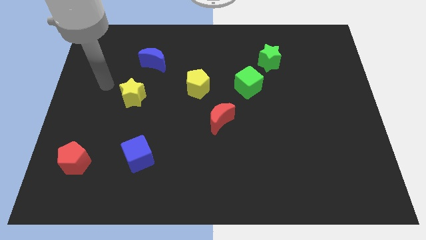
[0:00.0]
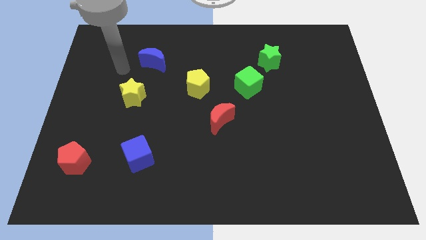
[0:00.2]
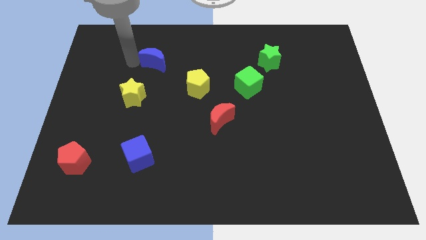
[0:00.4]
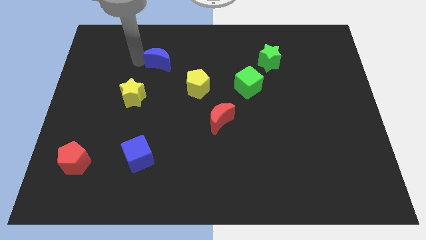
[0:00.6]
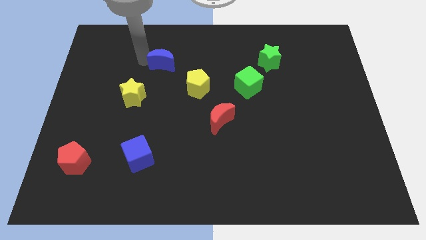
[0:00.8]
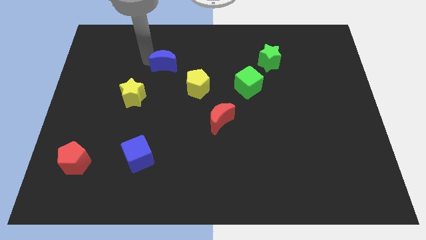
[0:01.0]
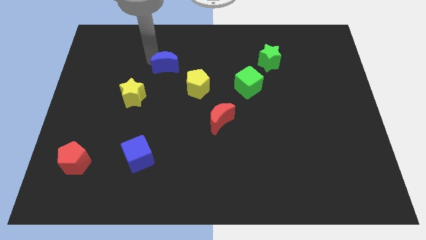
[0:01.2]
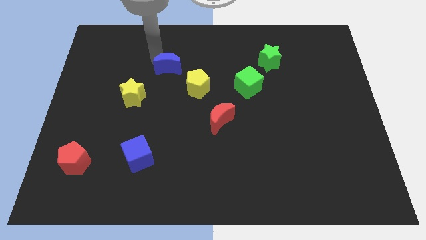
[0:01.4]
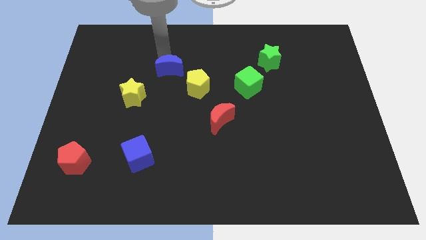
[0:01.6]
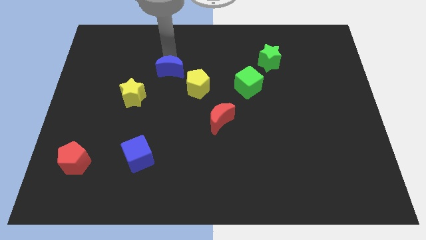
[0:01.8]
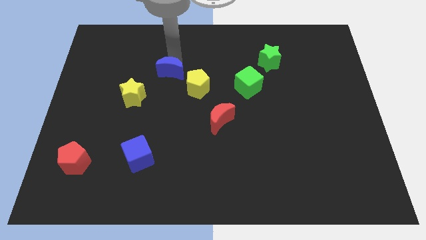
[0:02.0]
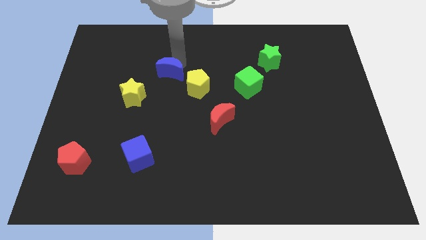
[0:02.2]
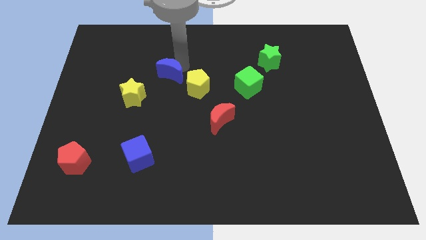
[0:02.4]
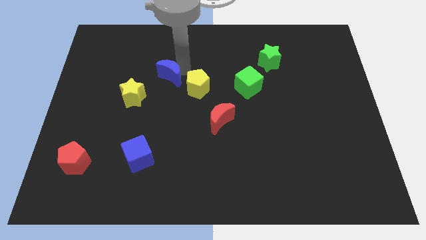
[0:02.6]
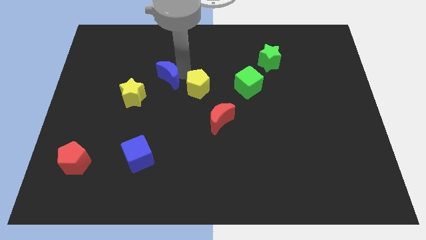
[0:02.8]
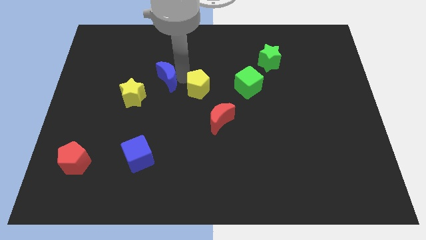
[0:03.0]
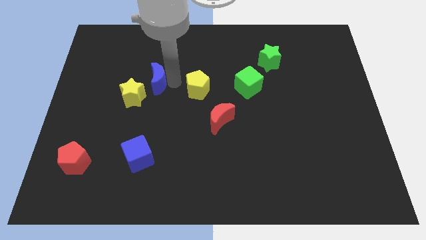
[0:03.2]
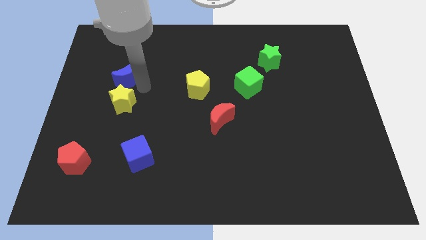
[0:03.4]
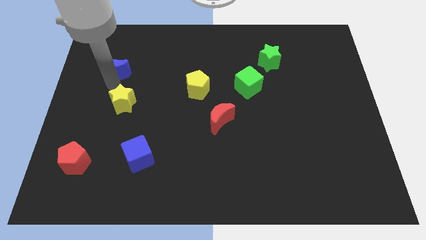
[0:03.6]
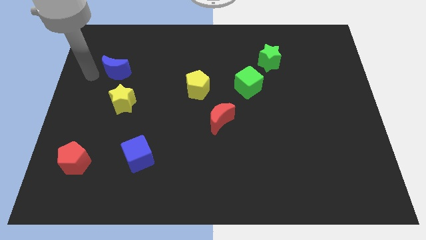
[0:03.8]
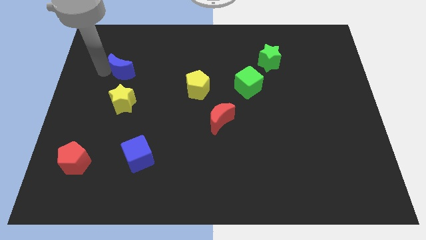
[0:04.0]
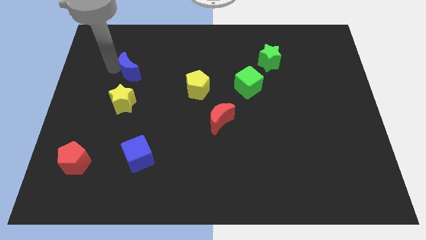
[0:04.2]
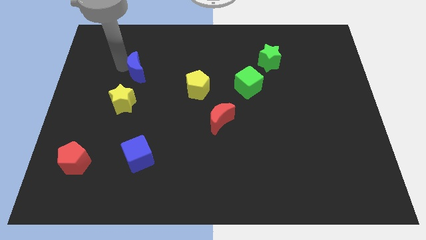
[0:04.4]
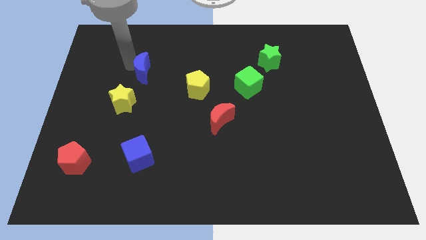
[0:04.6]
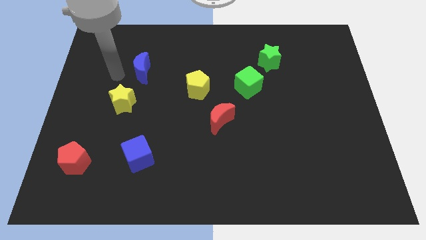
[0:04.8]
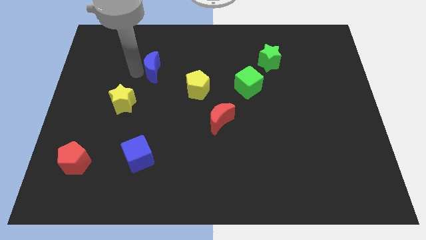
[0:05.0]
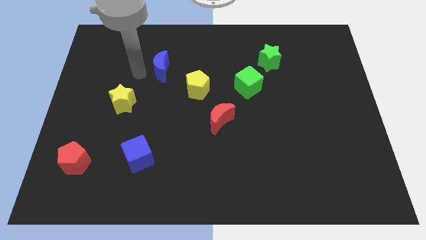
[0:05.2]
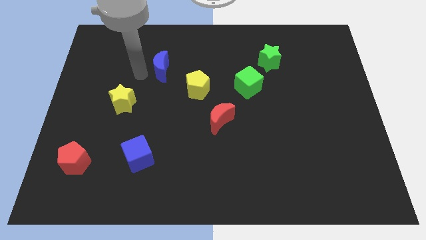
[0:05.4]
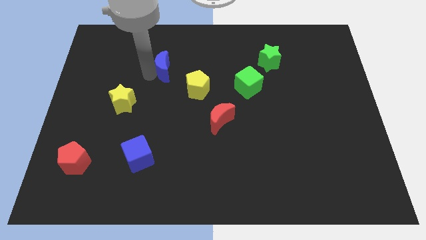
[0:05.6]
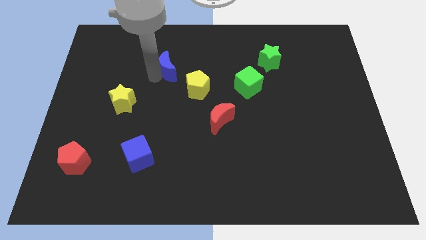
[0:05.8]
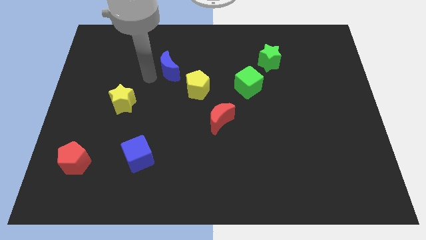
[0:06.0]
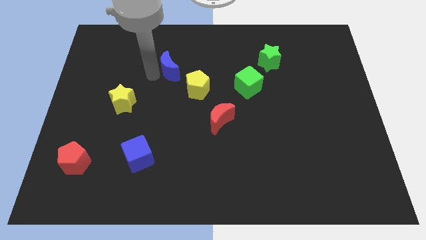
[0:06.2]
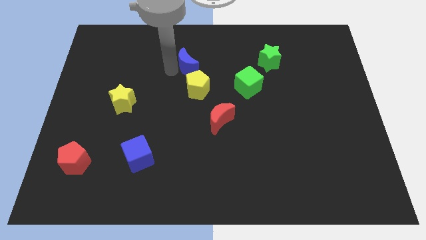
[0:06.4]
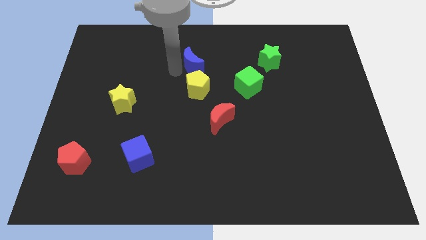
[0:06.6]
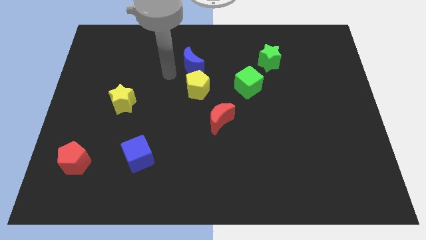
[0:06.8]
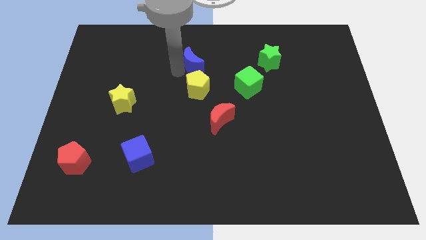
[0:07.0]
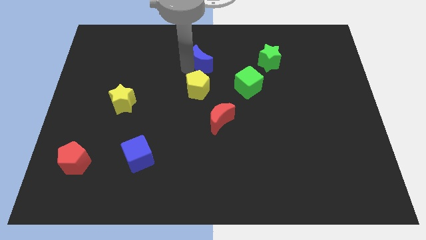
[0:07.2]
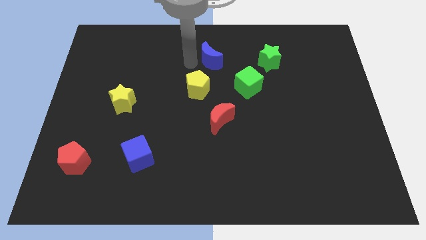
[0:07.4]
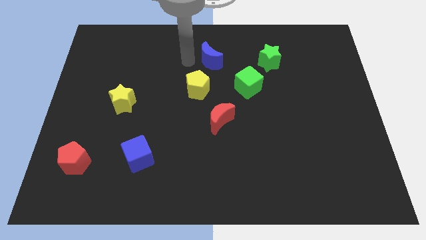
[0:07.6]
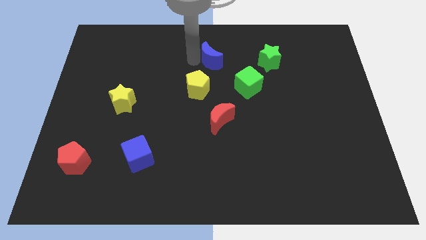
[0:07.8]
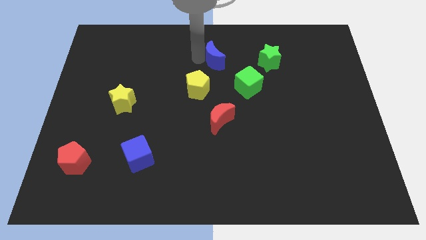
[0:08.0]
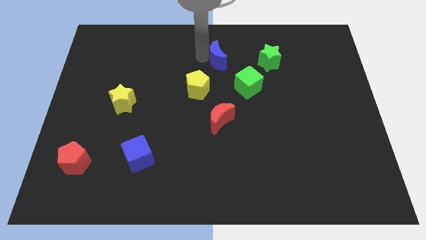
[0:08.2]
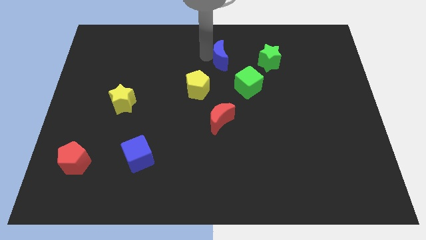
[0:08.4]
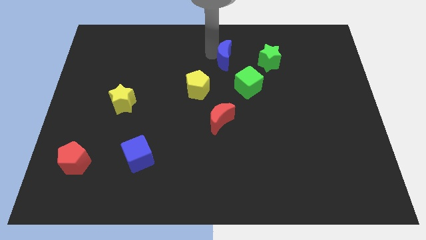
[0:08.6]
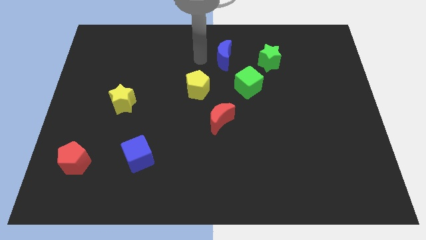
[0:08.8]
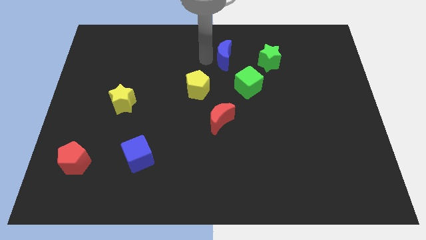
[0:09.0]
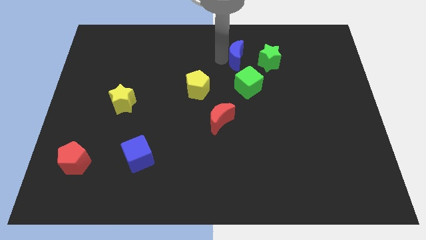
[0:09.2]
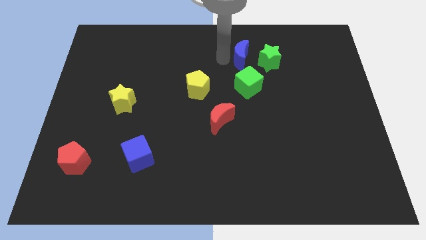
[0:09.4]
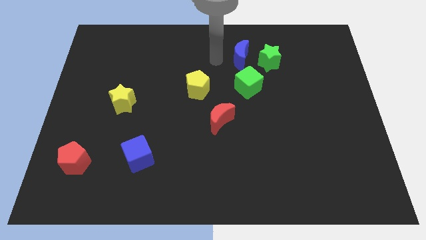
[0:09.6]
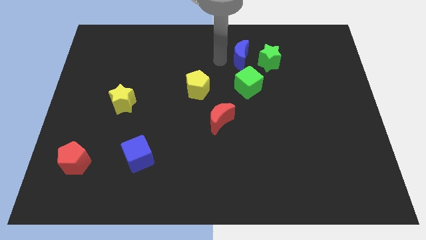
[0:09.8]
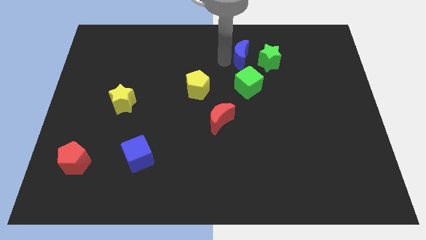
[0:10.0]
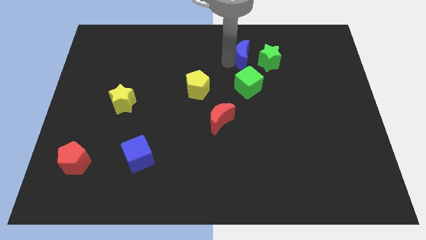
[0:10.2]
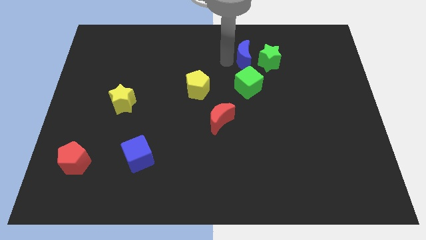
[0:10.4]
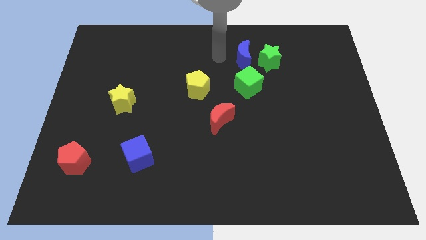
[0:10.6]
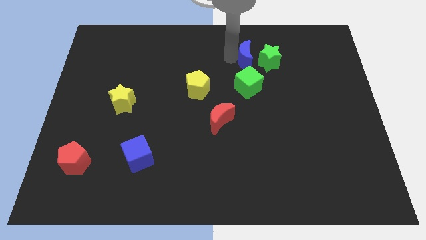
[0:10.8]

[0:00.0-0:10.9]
put the blue moon close to the green star

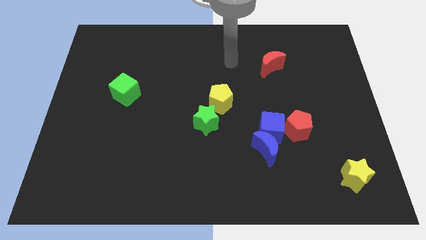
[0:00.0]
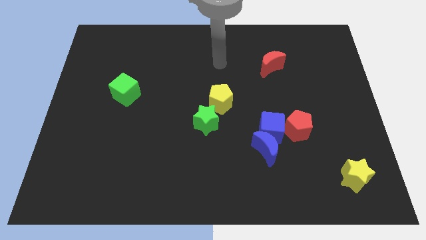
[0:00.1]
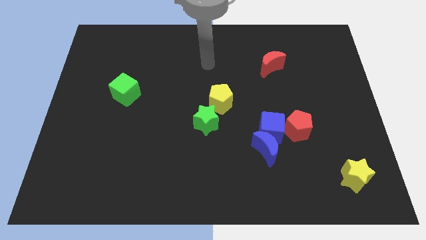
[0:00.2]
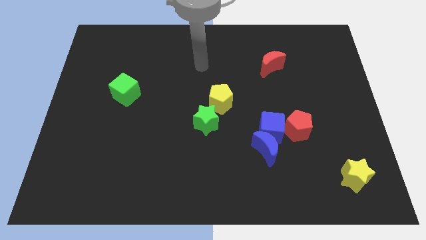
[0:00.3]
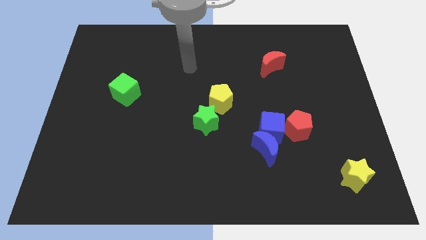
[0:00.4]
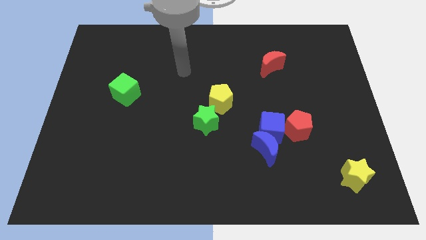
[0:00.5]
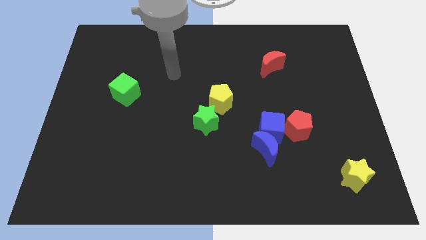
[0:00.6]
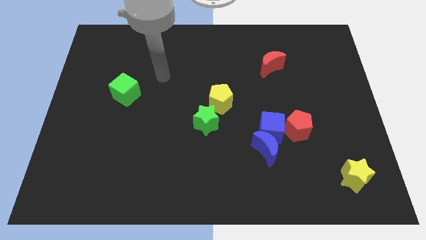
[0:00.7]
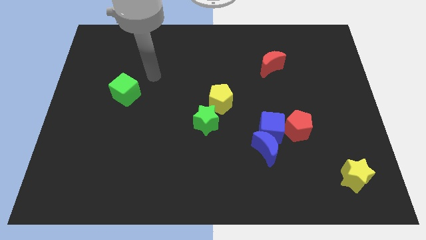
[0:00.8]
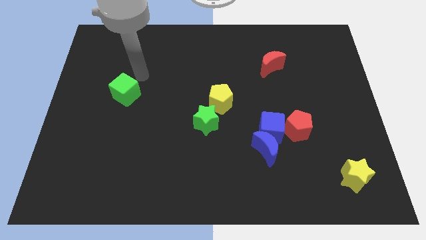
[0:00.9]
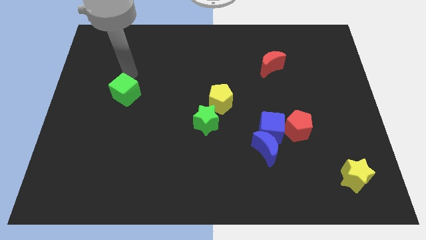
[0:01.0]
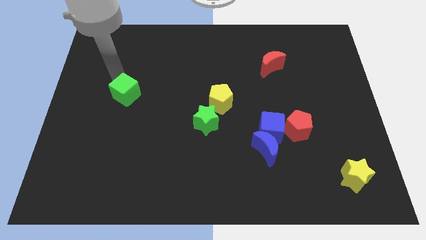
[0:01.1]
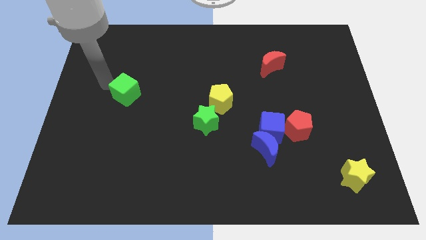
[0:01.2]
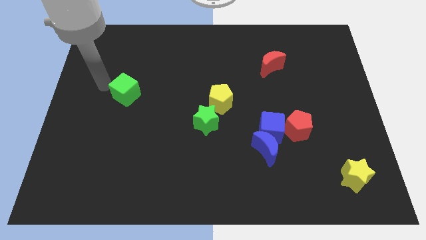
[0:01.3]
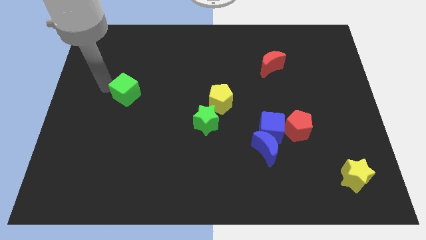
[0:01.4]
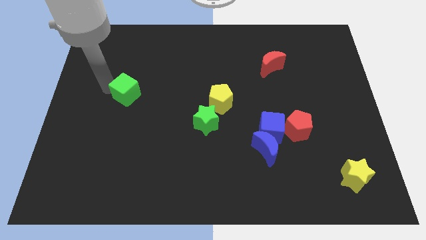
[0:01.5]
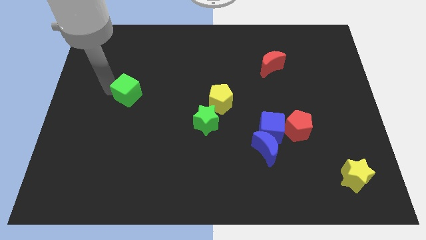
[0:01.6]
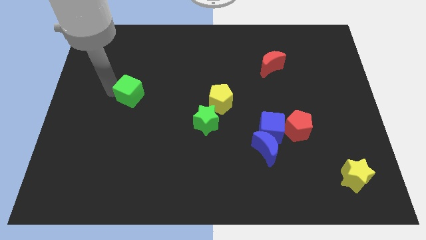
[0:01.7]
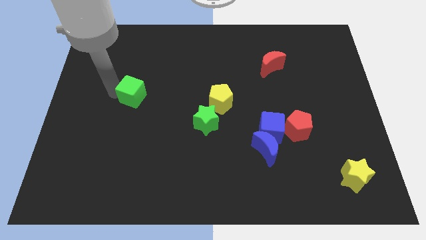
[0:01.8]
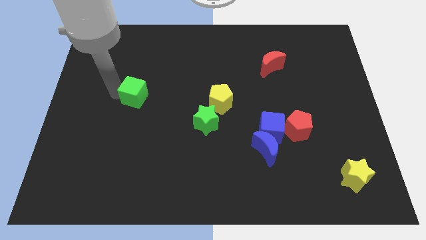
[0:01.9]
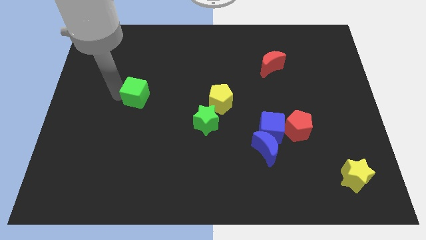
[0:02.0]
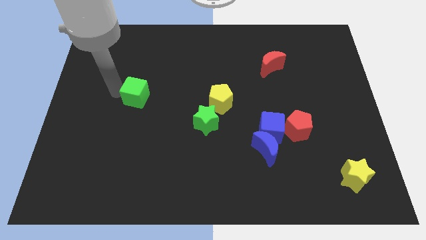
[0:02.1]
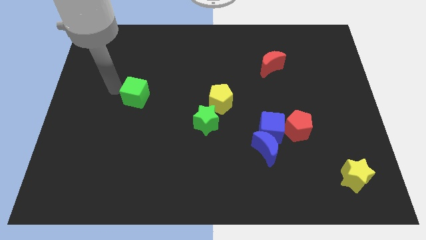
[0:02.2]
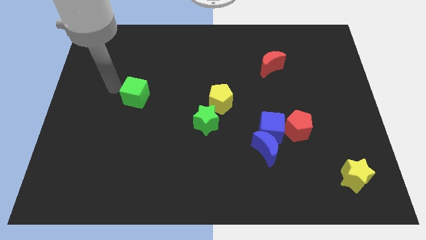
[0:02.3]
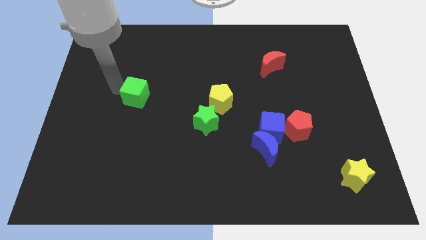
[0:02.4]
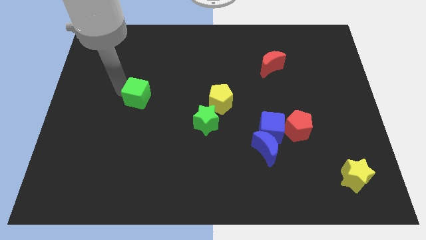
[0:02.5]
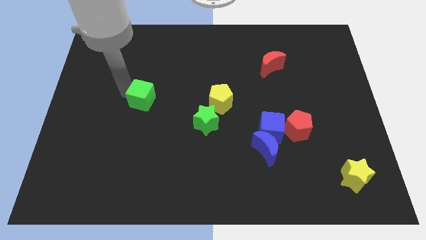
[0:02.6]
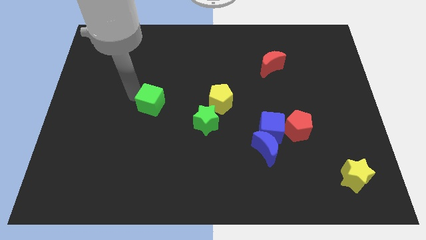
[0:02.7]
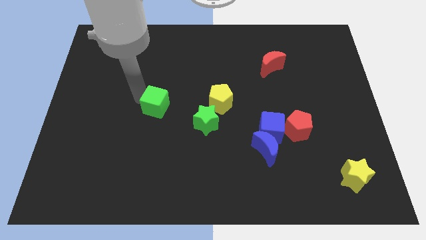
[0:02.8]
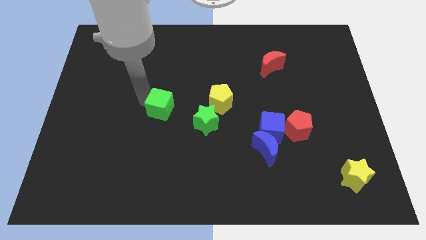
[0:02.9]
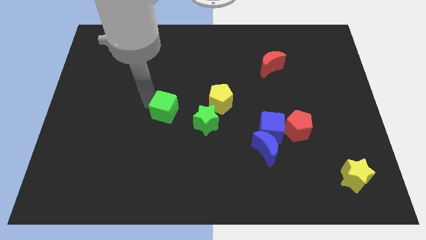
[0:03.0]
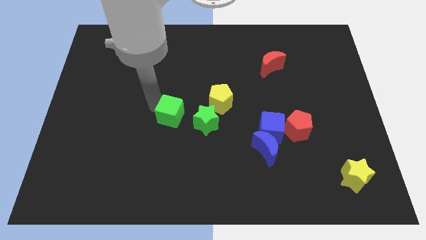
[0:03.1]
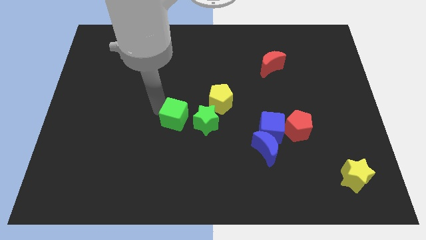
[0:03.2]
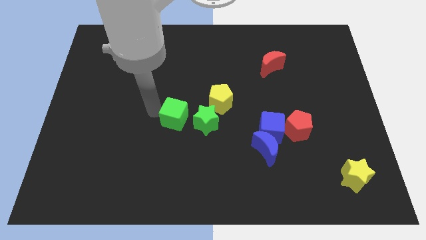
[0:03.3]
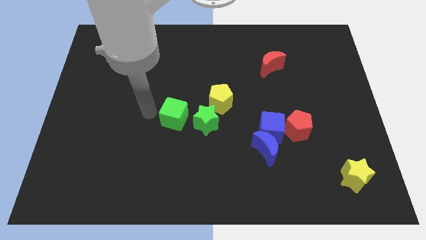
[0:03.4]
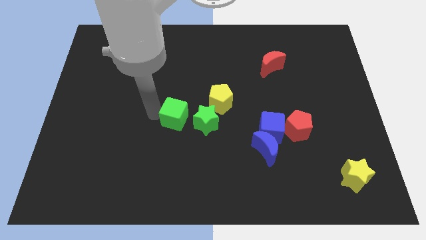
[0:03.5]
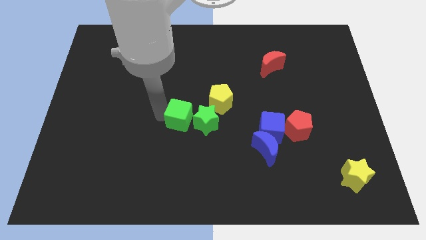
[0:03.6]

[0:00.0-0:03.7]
slide the green cube close to the green star
